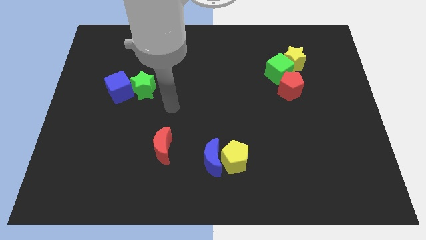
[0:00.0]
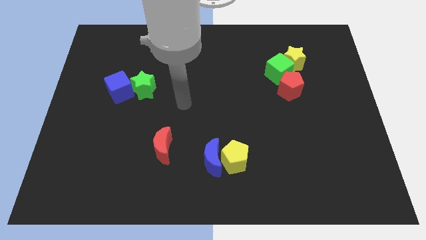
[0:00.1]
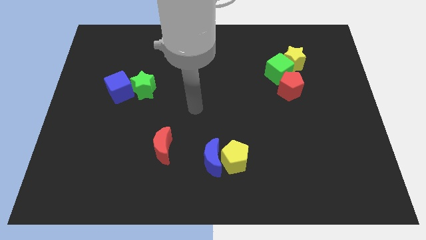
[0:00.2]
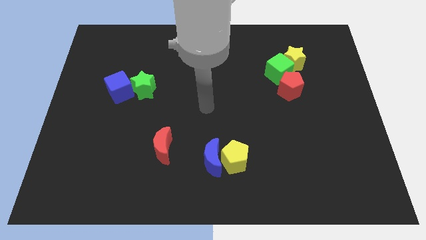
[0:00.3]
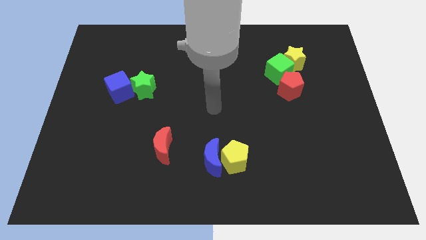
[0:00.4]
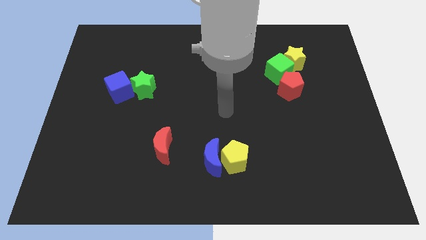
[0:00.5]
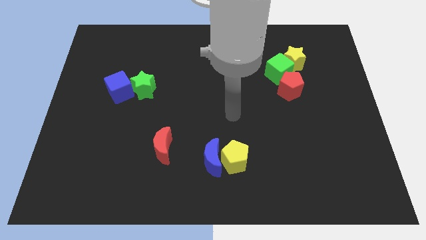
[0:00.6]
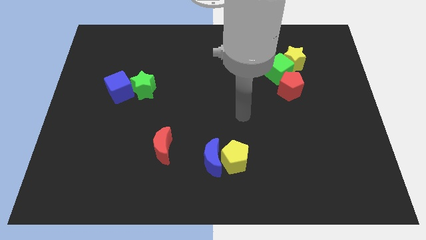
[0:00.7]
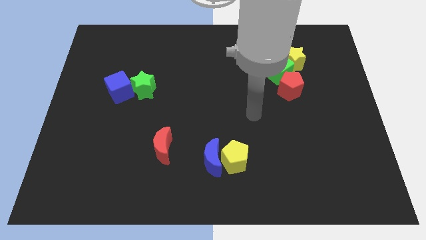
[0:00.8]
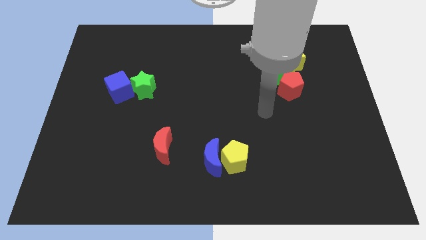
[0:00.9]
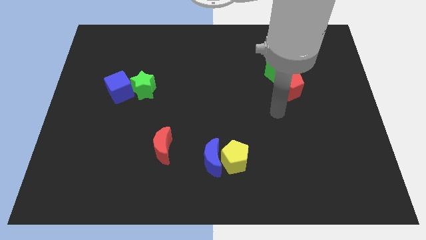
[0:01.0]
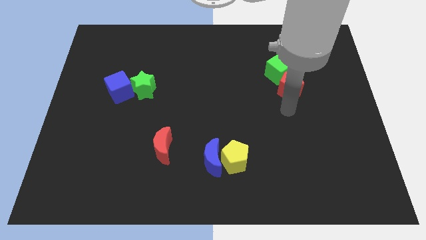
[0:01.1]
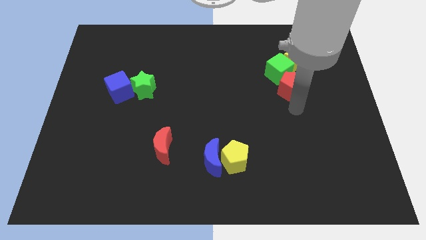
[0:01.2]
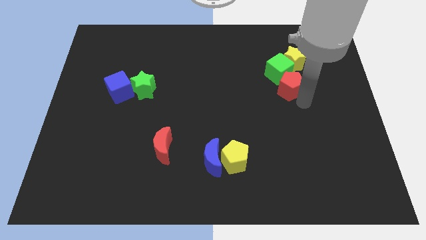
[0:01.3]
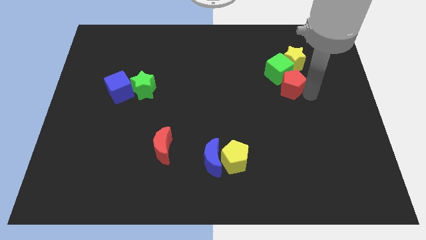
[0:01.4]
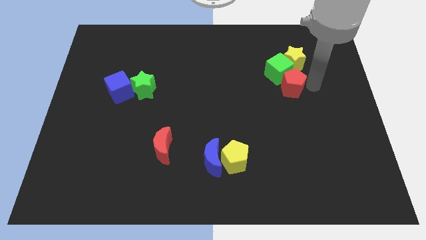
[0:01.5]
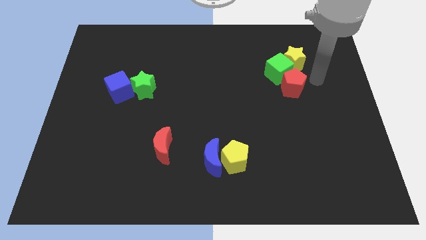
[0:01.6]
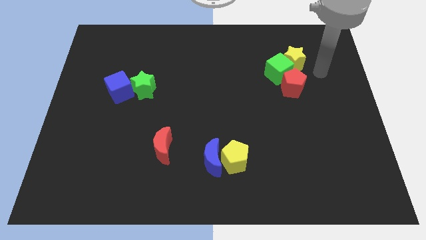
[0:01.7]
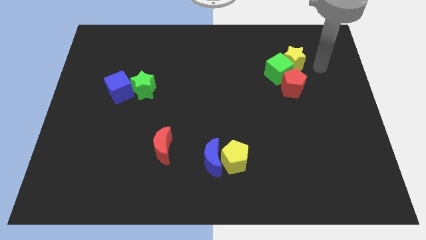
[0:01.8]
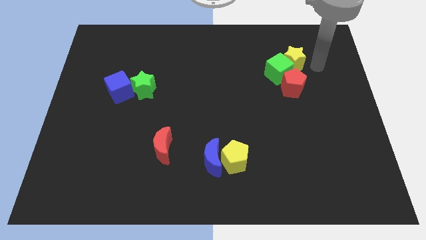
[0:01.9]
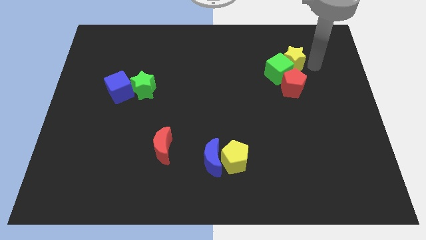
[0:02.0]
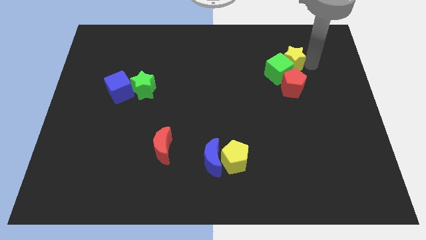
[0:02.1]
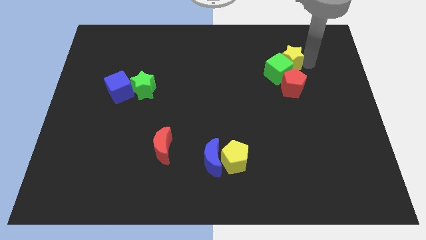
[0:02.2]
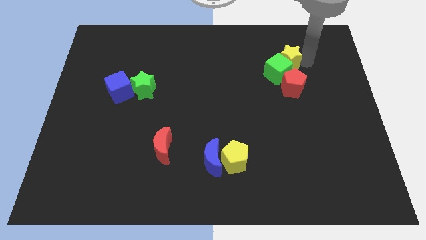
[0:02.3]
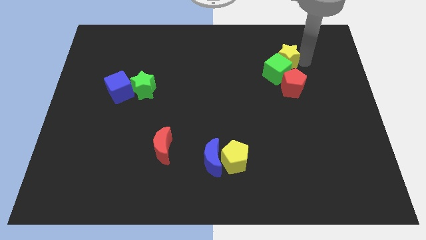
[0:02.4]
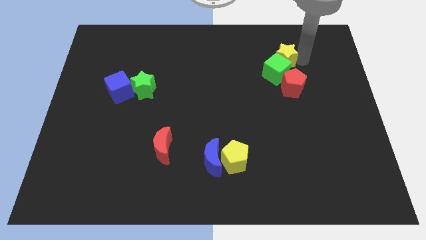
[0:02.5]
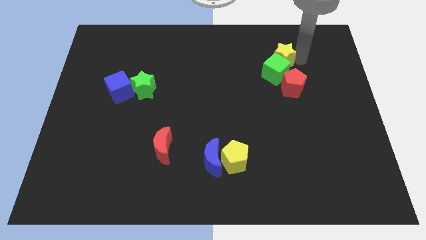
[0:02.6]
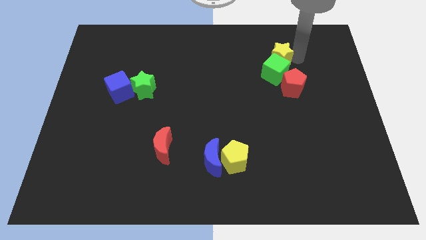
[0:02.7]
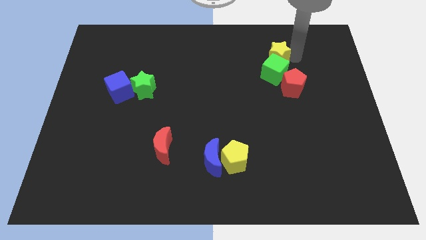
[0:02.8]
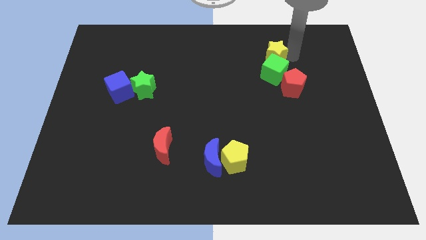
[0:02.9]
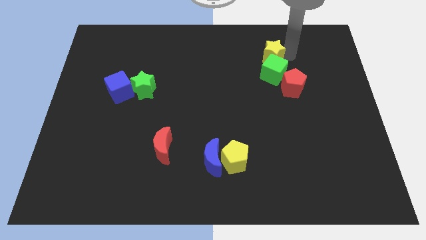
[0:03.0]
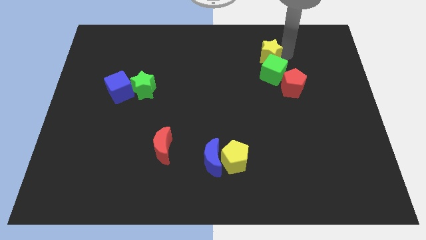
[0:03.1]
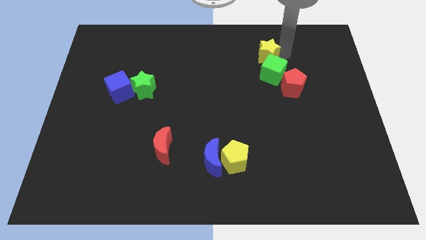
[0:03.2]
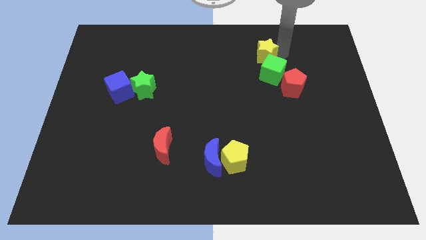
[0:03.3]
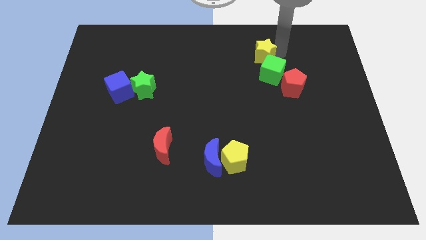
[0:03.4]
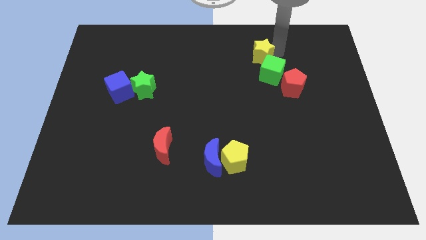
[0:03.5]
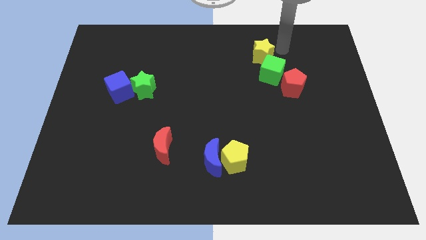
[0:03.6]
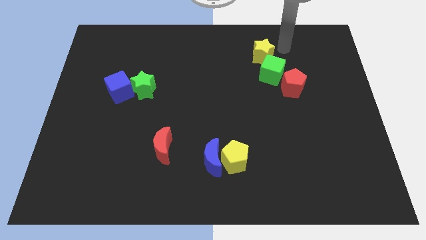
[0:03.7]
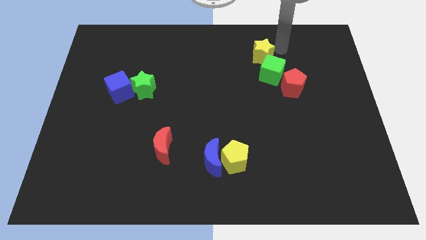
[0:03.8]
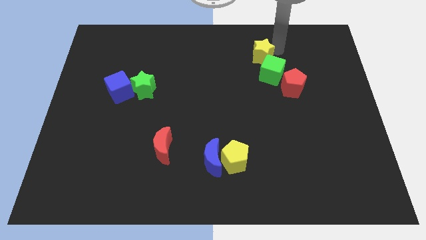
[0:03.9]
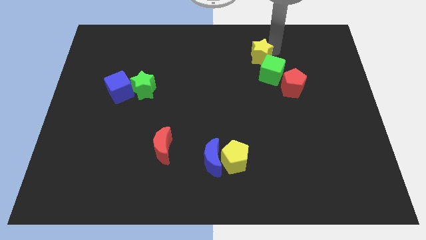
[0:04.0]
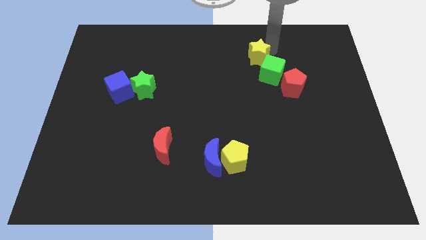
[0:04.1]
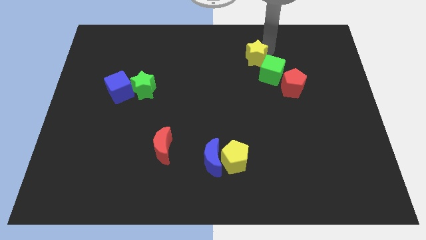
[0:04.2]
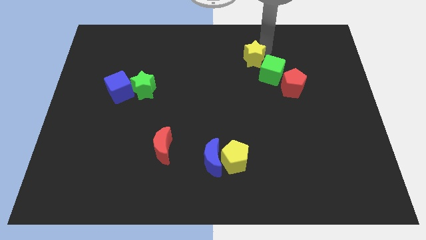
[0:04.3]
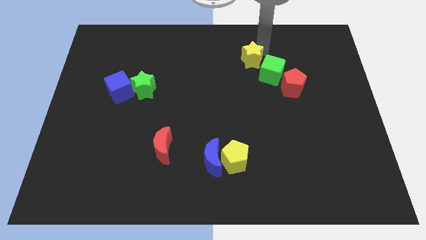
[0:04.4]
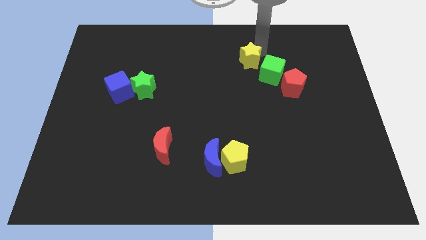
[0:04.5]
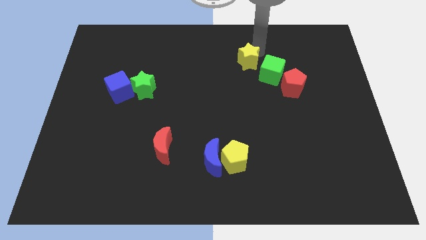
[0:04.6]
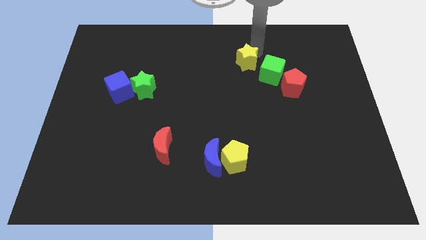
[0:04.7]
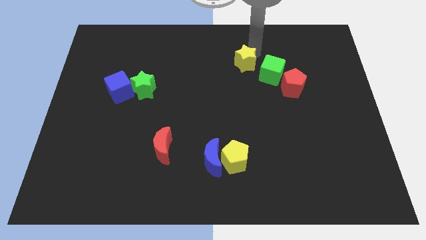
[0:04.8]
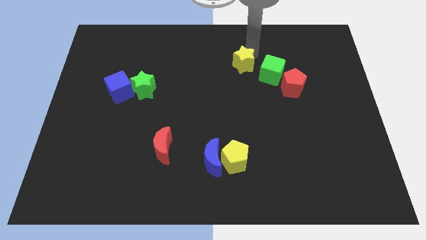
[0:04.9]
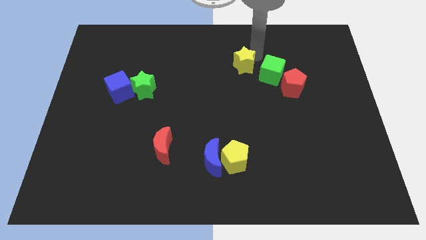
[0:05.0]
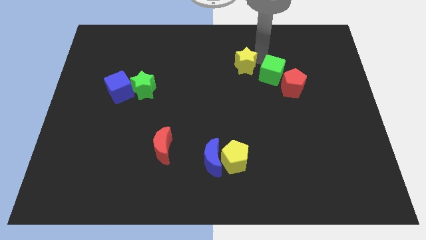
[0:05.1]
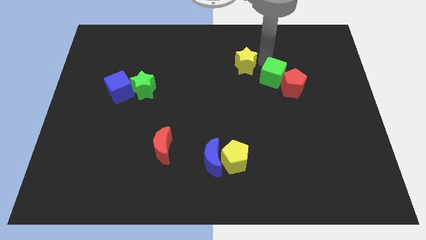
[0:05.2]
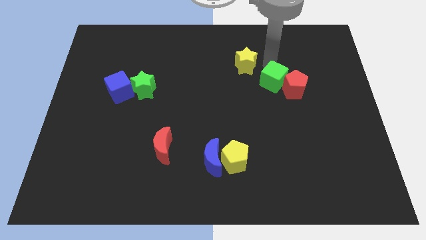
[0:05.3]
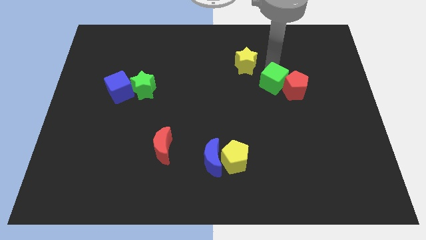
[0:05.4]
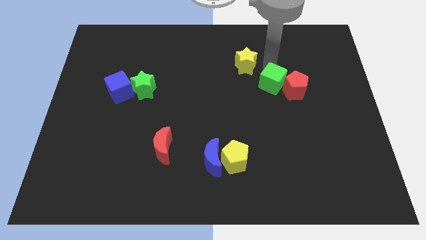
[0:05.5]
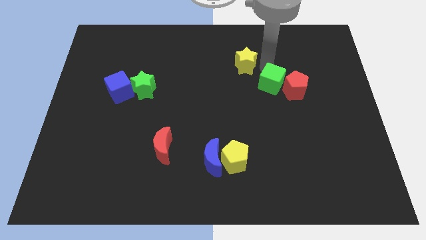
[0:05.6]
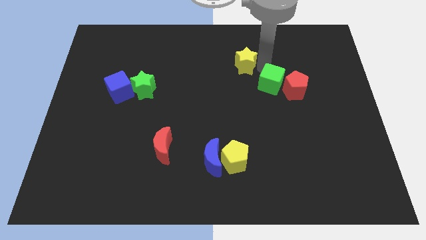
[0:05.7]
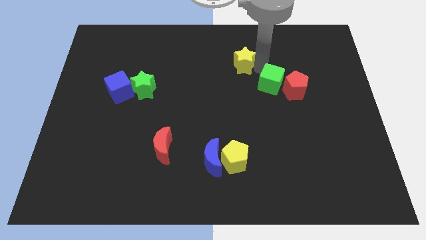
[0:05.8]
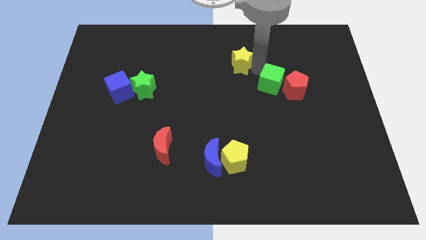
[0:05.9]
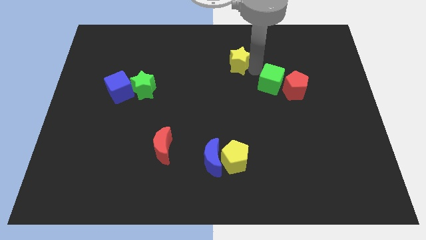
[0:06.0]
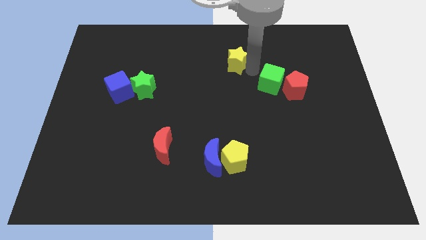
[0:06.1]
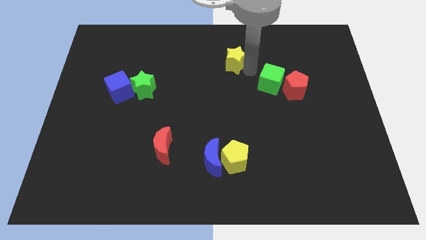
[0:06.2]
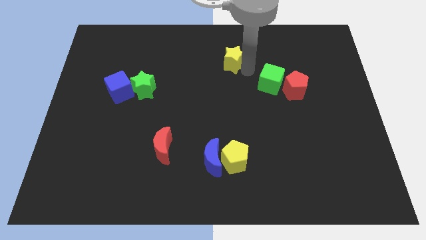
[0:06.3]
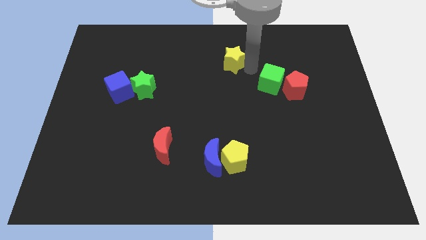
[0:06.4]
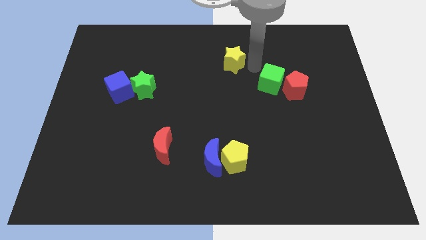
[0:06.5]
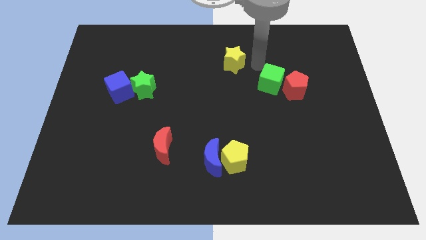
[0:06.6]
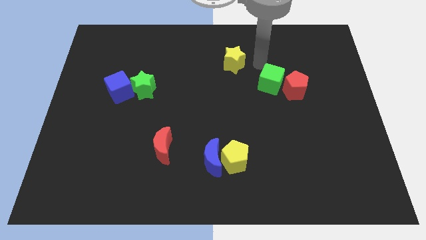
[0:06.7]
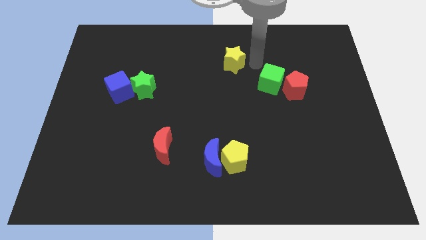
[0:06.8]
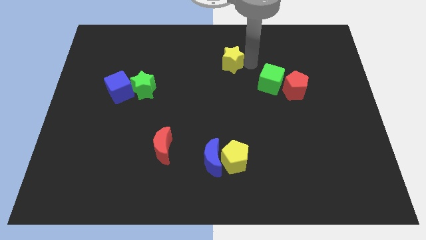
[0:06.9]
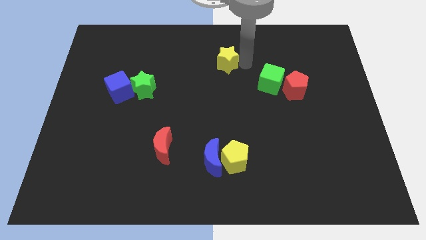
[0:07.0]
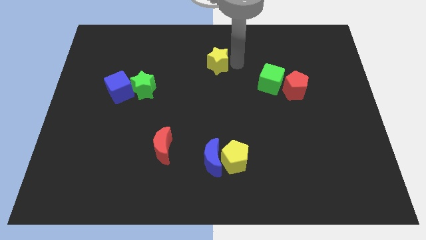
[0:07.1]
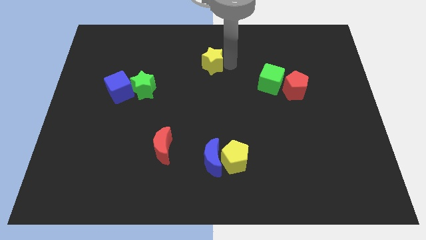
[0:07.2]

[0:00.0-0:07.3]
move the yellow star left

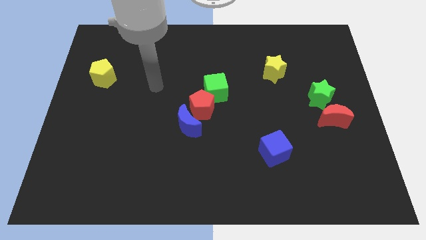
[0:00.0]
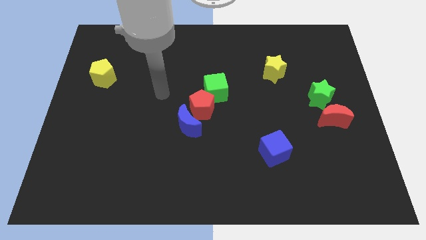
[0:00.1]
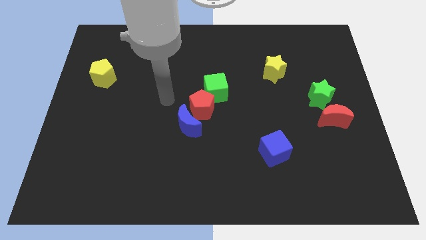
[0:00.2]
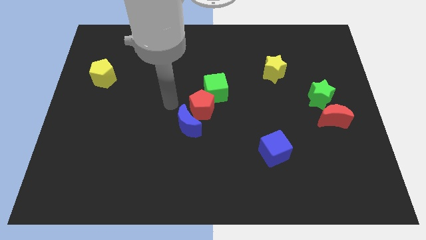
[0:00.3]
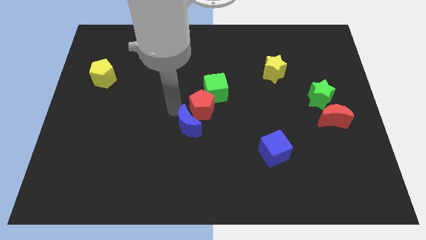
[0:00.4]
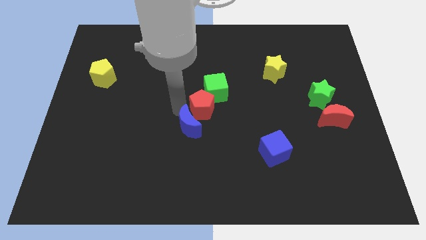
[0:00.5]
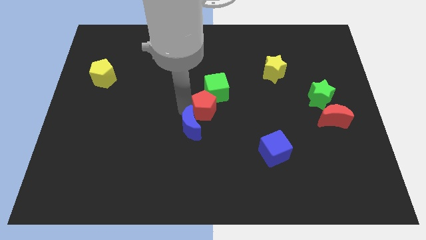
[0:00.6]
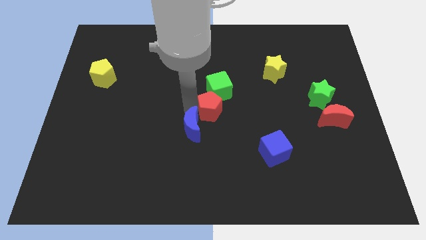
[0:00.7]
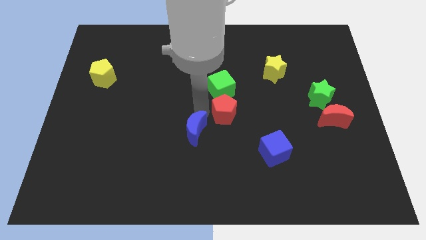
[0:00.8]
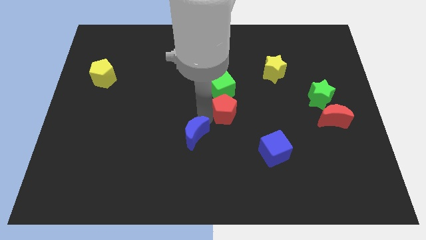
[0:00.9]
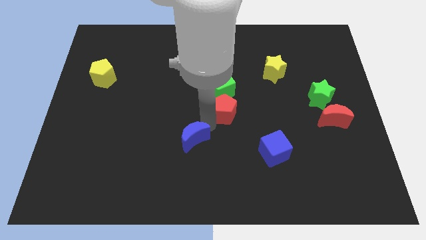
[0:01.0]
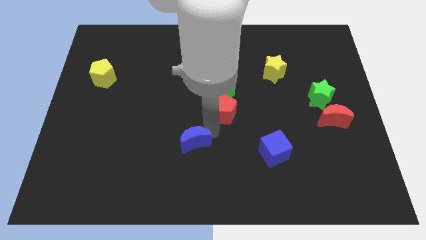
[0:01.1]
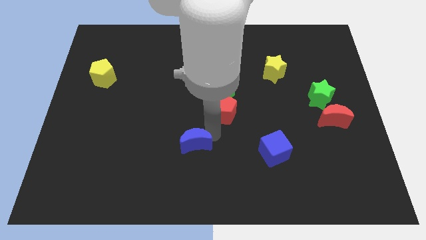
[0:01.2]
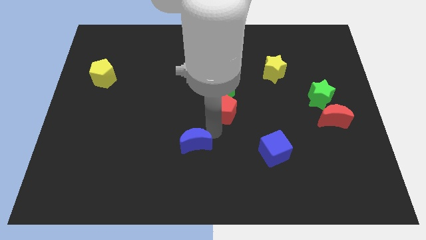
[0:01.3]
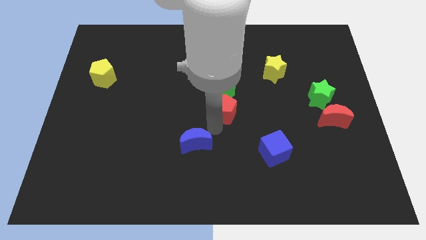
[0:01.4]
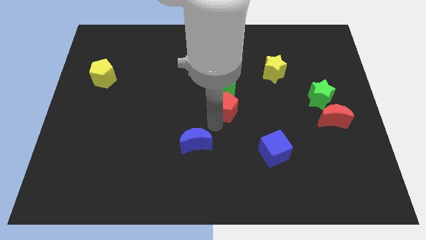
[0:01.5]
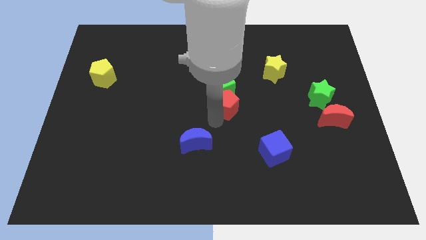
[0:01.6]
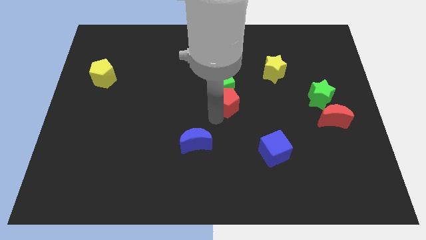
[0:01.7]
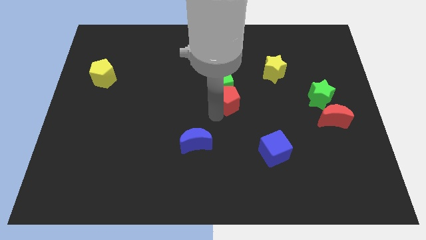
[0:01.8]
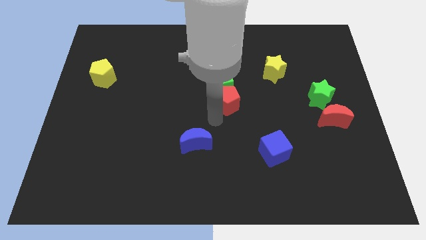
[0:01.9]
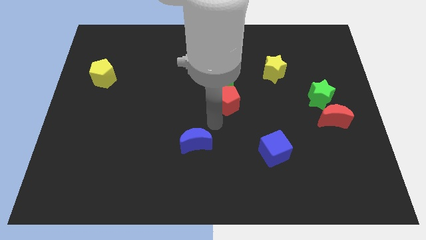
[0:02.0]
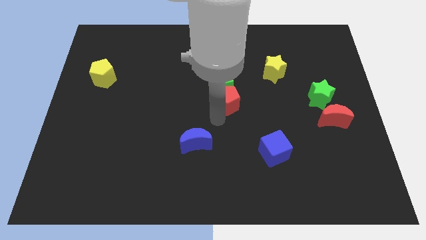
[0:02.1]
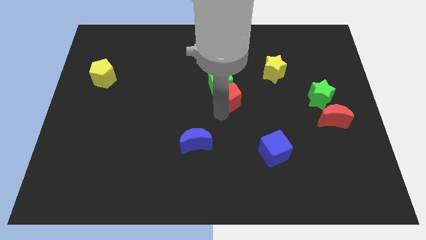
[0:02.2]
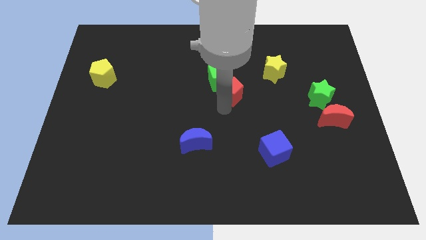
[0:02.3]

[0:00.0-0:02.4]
push the red pentagon a bit up and to the right diagonally
